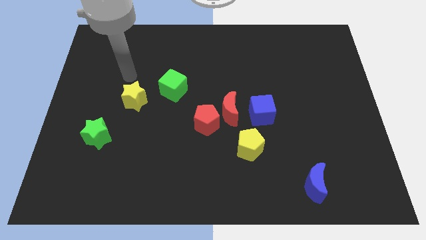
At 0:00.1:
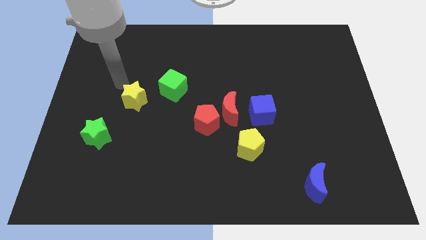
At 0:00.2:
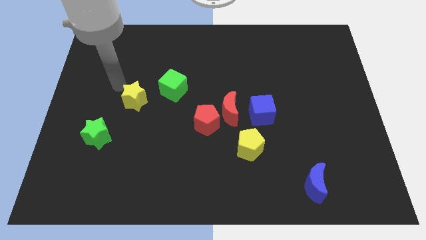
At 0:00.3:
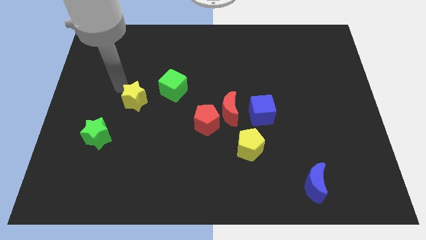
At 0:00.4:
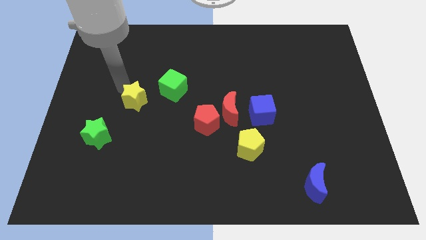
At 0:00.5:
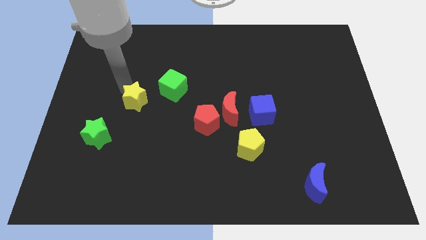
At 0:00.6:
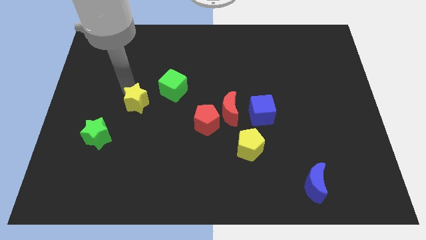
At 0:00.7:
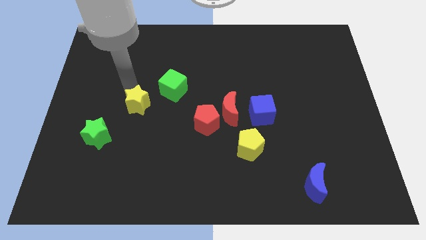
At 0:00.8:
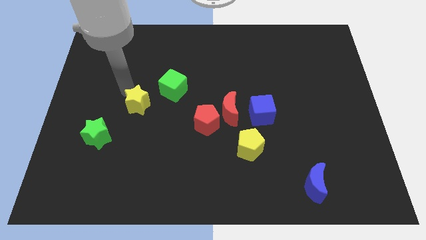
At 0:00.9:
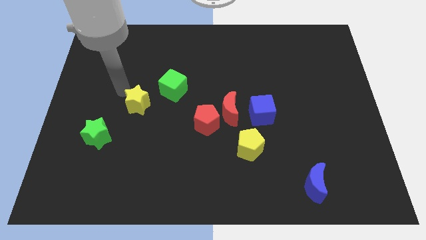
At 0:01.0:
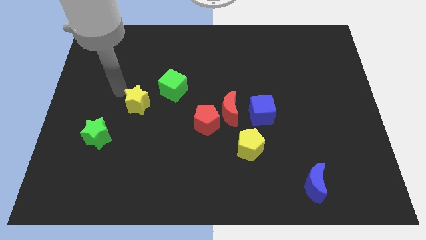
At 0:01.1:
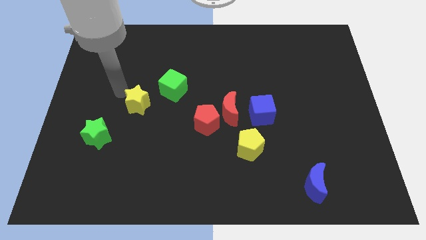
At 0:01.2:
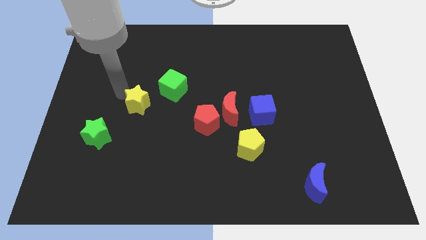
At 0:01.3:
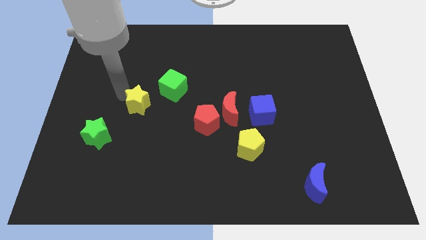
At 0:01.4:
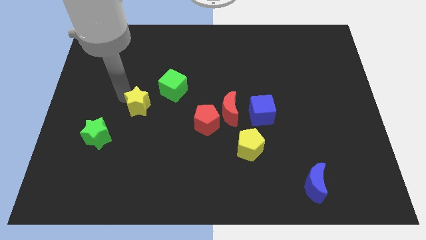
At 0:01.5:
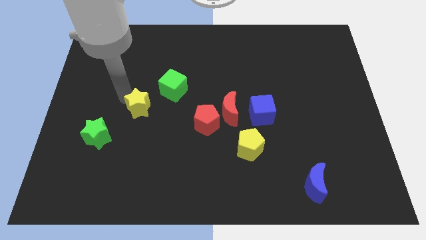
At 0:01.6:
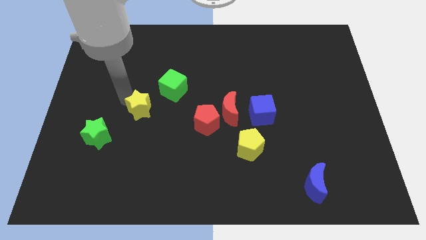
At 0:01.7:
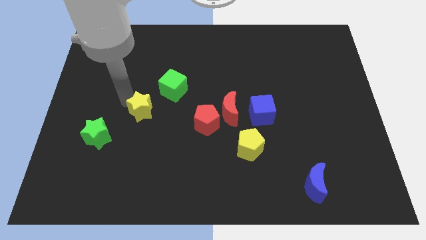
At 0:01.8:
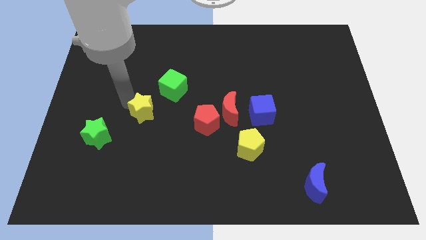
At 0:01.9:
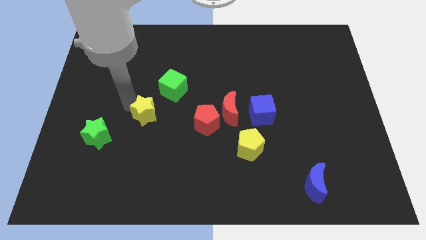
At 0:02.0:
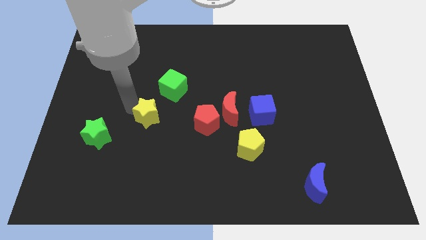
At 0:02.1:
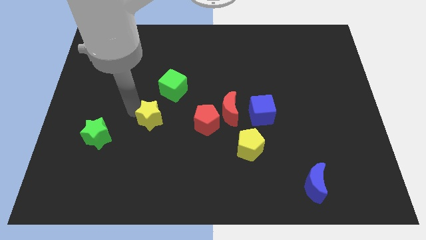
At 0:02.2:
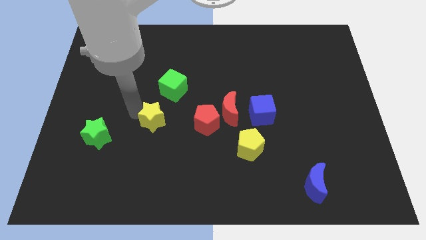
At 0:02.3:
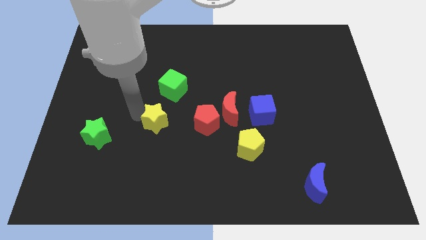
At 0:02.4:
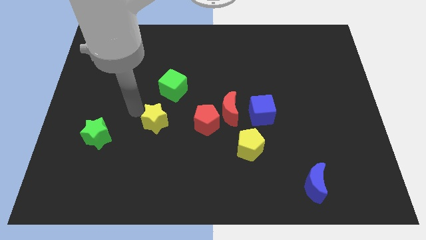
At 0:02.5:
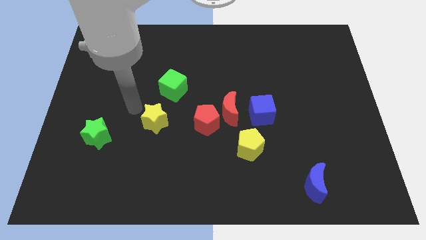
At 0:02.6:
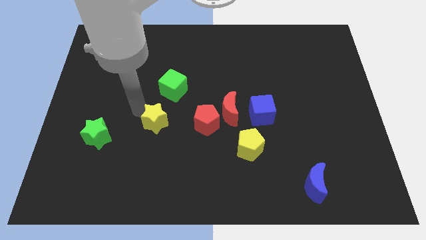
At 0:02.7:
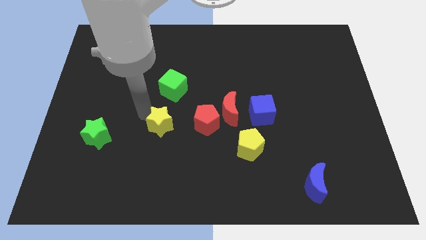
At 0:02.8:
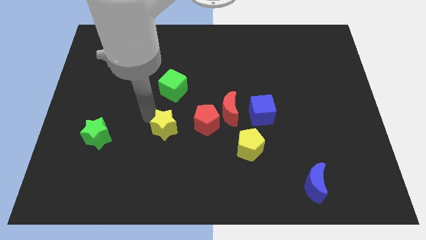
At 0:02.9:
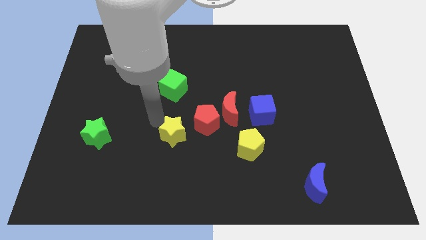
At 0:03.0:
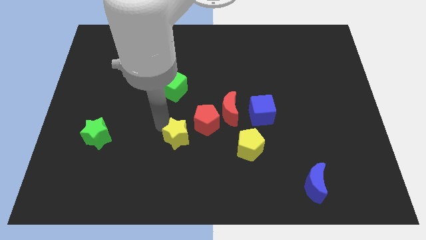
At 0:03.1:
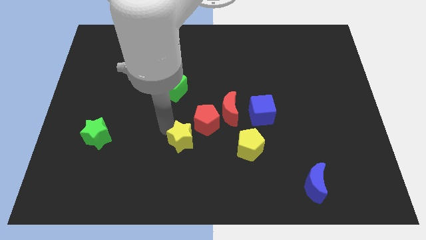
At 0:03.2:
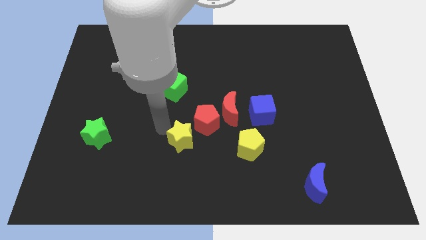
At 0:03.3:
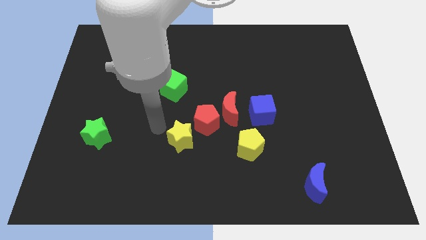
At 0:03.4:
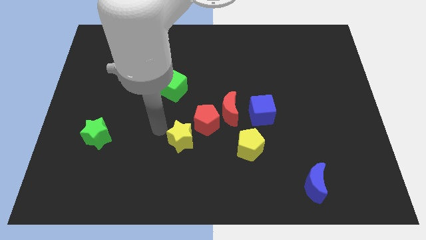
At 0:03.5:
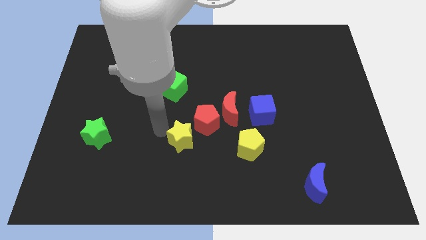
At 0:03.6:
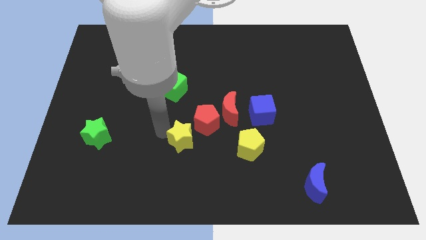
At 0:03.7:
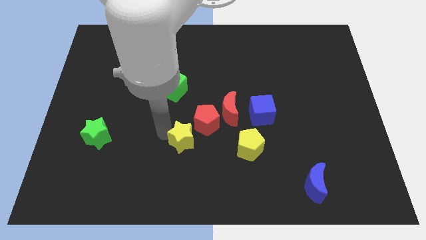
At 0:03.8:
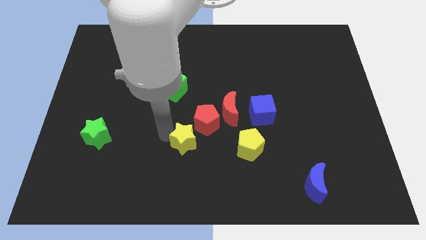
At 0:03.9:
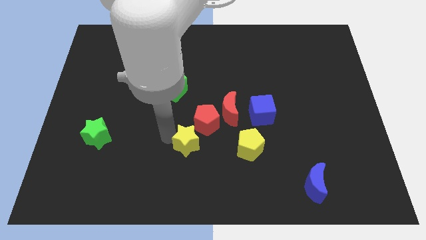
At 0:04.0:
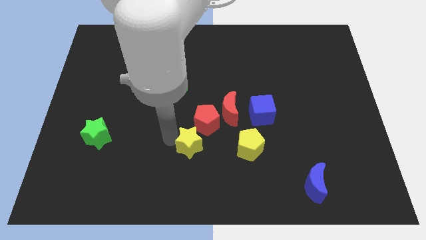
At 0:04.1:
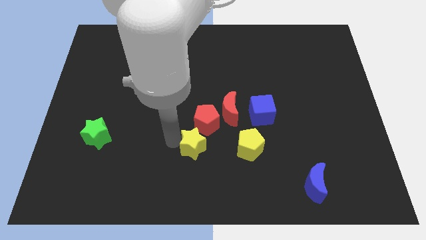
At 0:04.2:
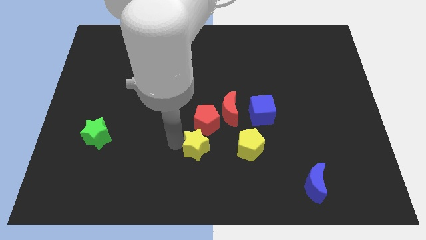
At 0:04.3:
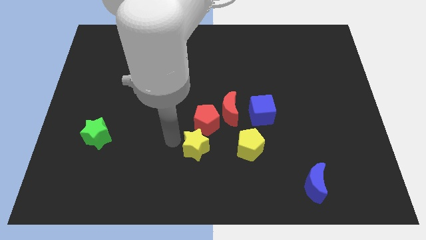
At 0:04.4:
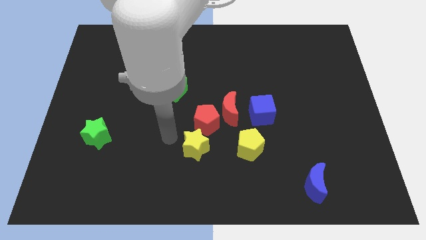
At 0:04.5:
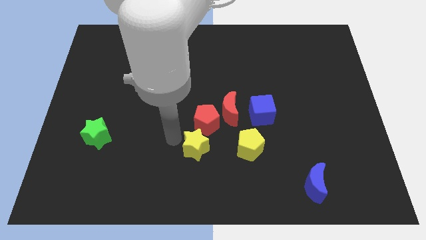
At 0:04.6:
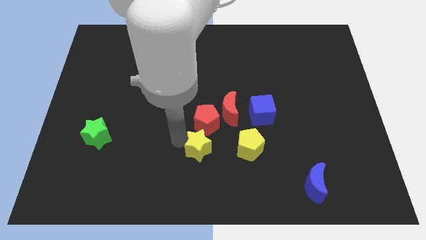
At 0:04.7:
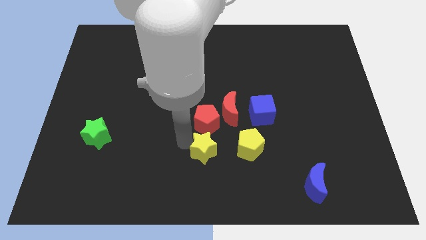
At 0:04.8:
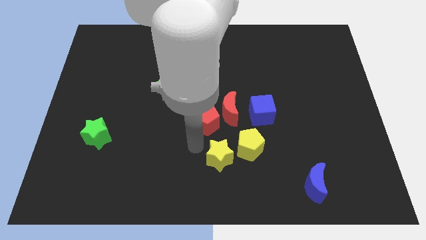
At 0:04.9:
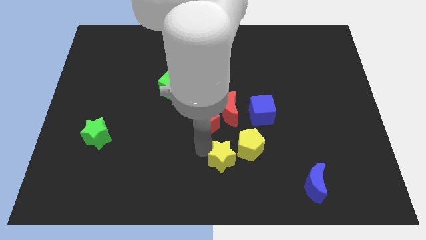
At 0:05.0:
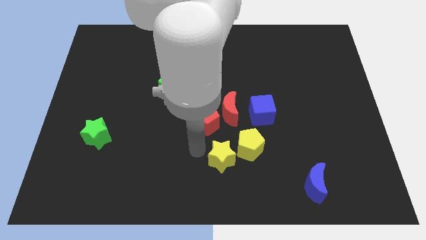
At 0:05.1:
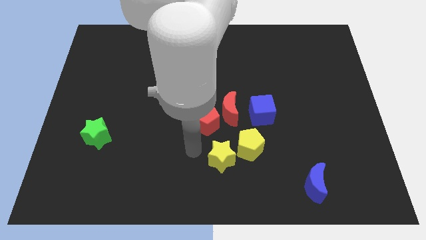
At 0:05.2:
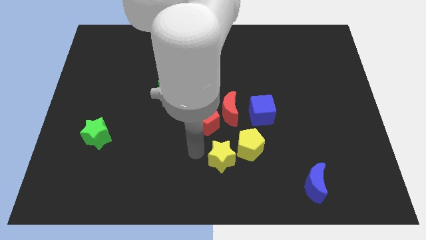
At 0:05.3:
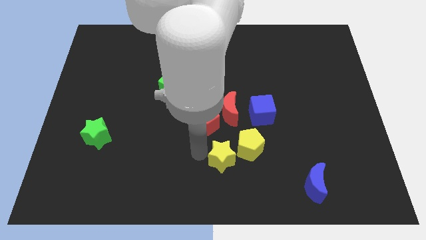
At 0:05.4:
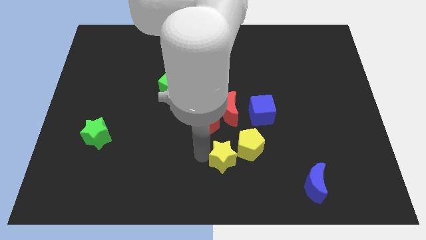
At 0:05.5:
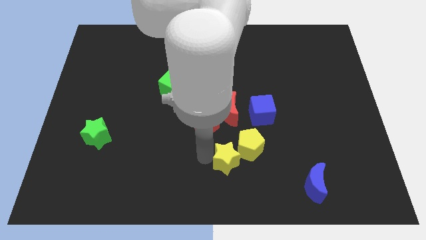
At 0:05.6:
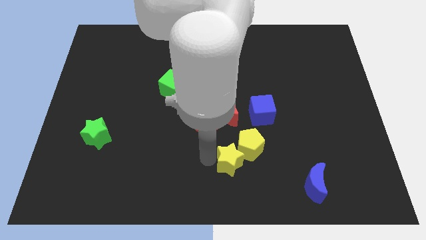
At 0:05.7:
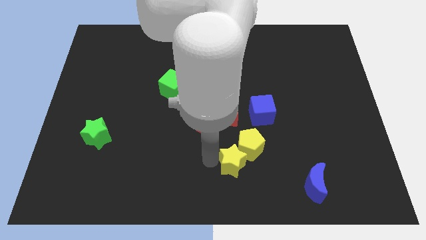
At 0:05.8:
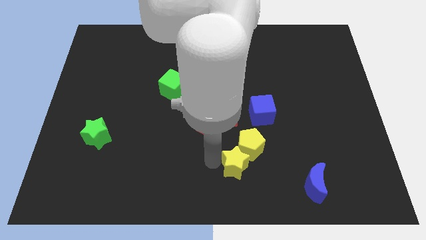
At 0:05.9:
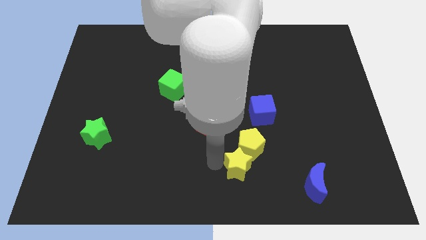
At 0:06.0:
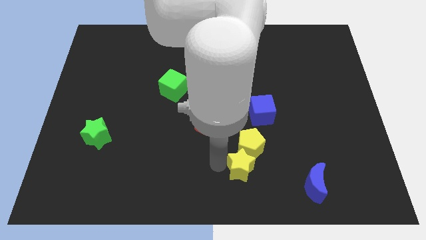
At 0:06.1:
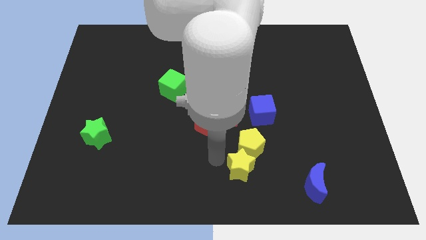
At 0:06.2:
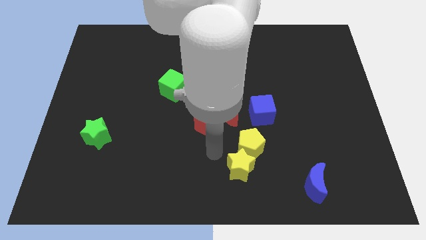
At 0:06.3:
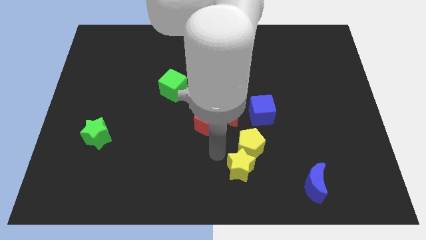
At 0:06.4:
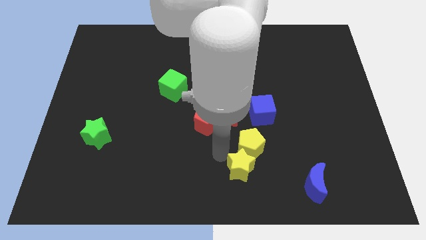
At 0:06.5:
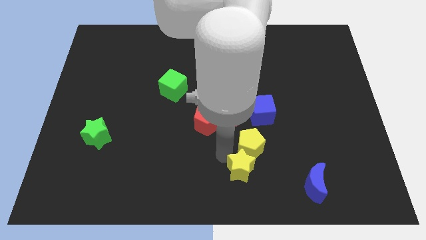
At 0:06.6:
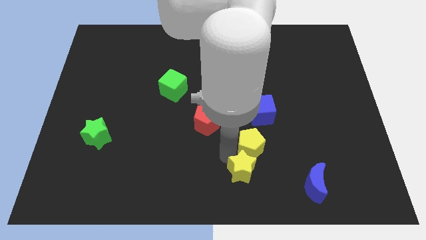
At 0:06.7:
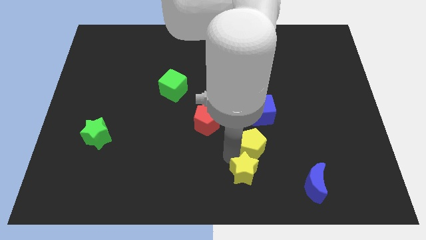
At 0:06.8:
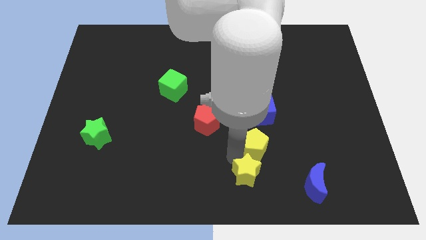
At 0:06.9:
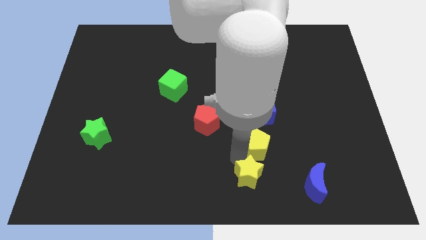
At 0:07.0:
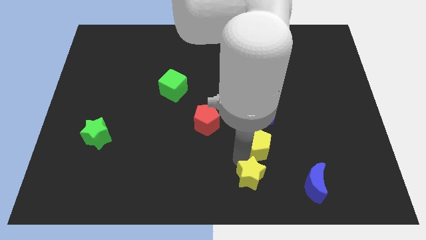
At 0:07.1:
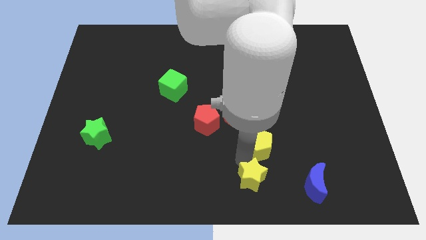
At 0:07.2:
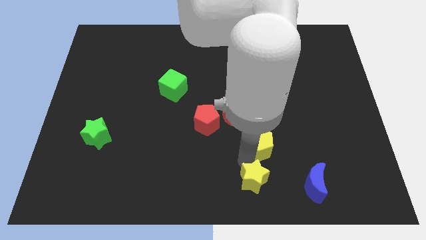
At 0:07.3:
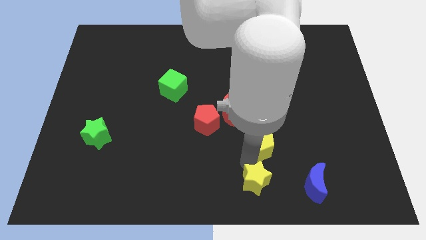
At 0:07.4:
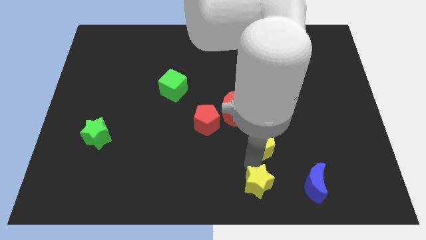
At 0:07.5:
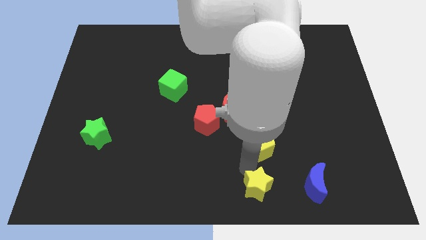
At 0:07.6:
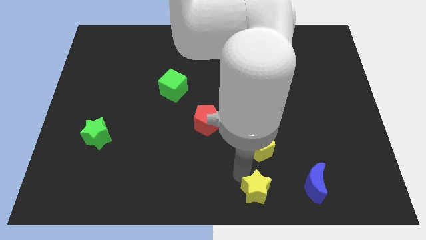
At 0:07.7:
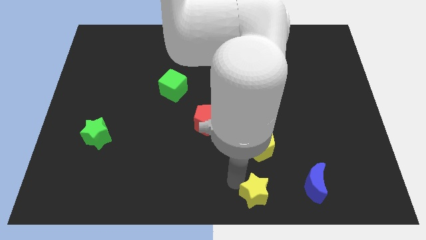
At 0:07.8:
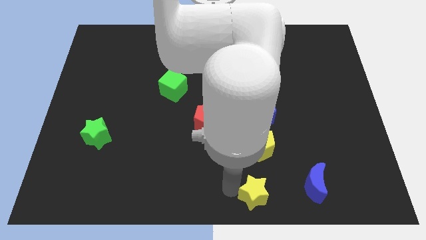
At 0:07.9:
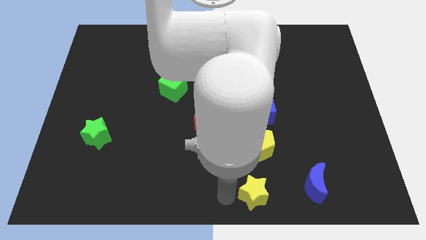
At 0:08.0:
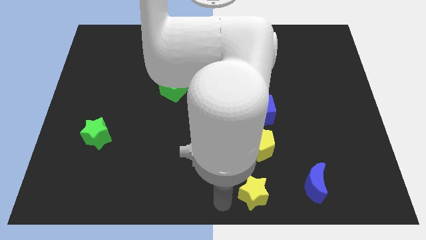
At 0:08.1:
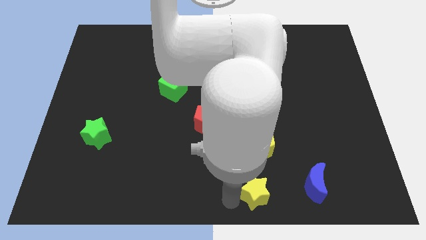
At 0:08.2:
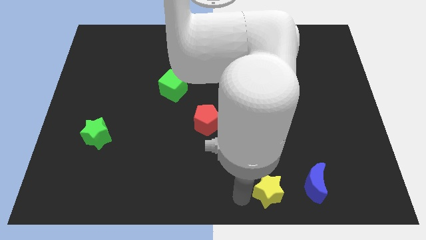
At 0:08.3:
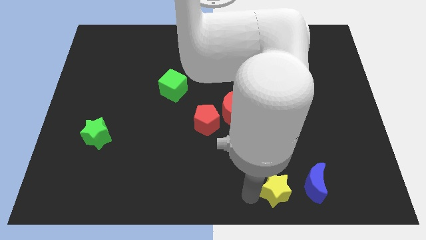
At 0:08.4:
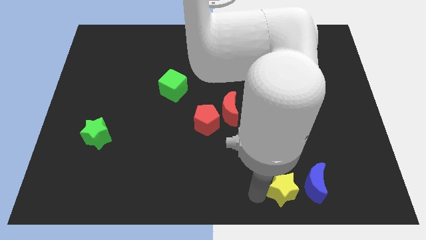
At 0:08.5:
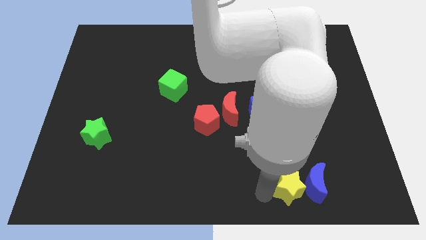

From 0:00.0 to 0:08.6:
slide the yellow star next to the blue moon
